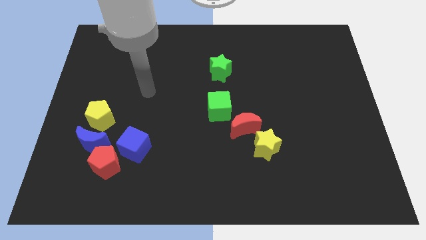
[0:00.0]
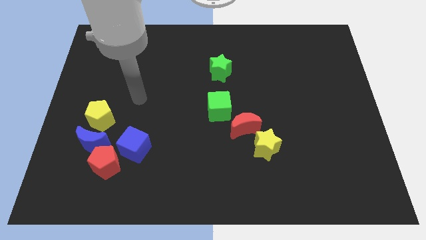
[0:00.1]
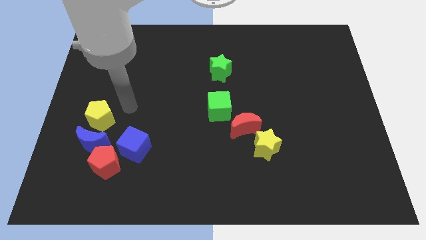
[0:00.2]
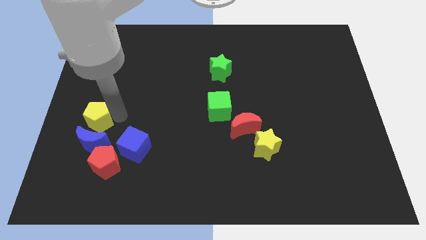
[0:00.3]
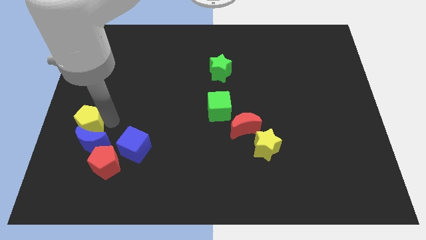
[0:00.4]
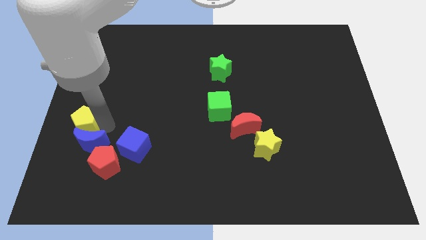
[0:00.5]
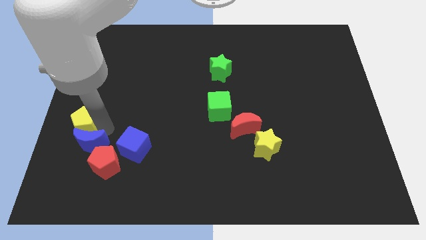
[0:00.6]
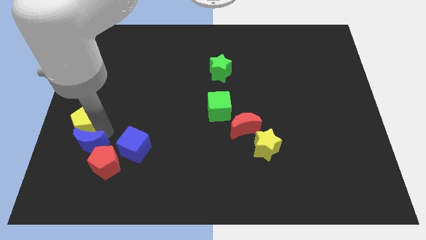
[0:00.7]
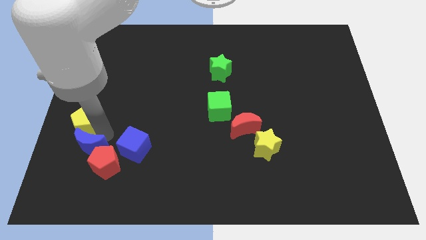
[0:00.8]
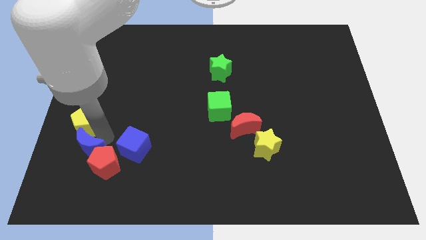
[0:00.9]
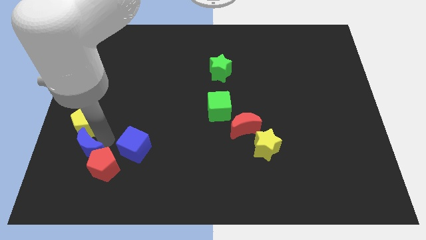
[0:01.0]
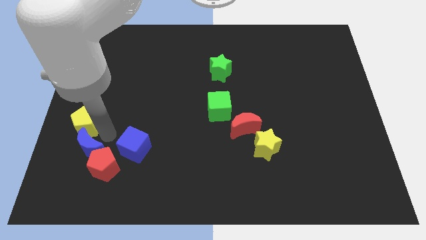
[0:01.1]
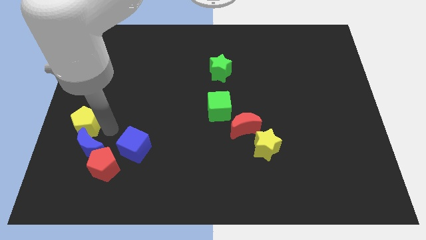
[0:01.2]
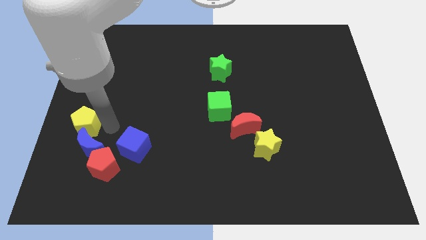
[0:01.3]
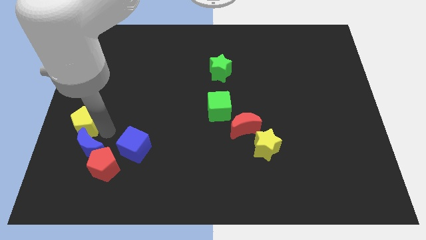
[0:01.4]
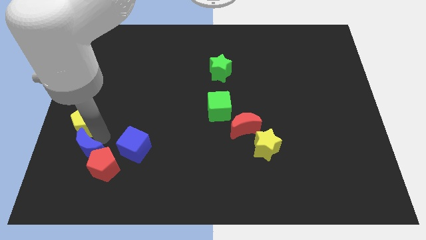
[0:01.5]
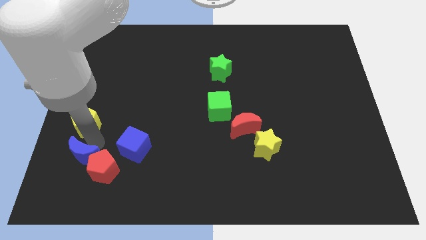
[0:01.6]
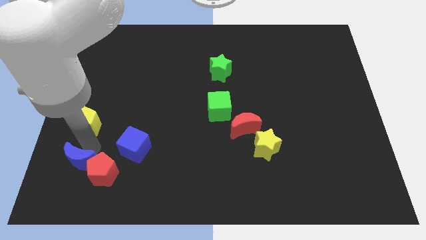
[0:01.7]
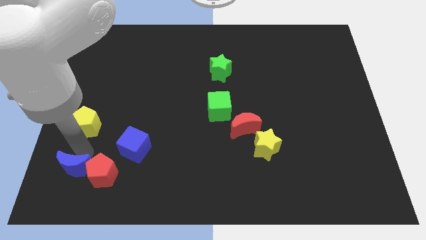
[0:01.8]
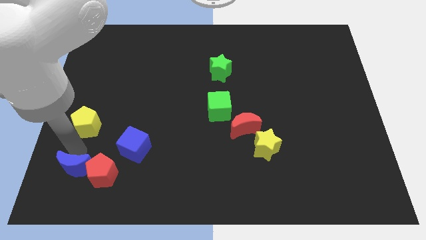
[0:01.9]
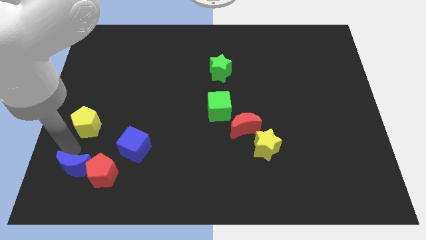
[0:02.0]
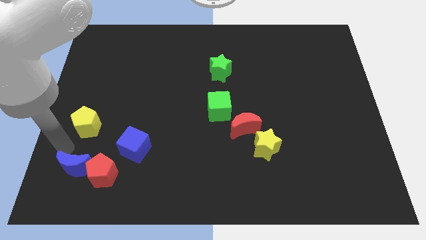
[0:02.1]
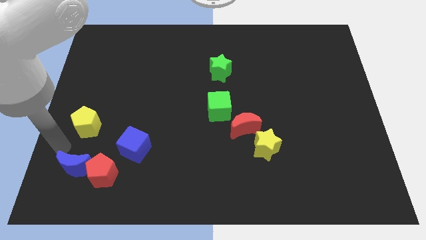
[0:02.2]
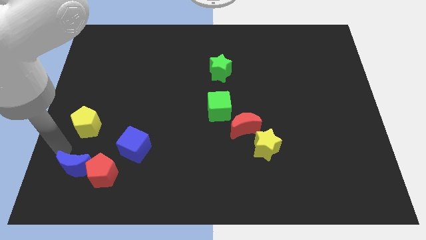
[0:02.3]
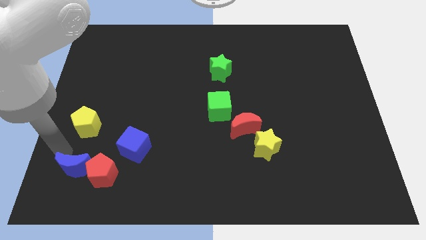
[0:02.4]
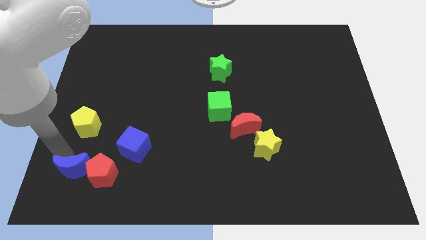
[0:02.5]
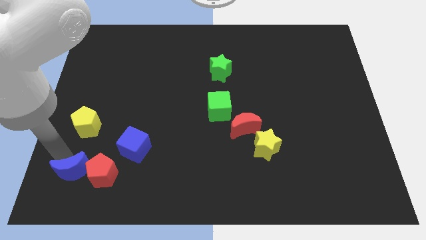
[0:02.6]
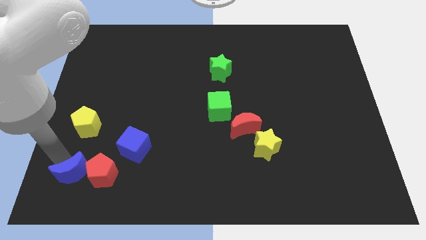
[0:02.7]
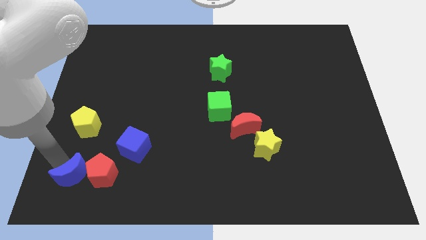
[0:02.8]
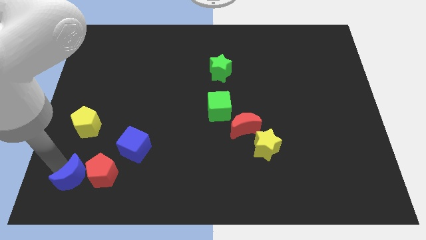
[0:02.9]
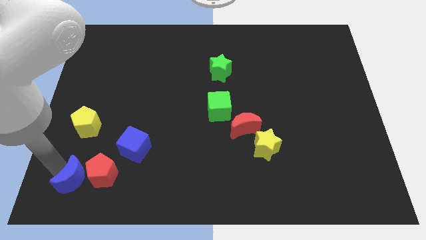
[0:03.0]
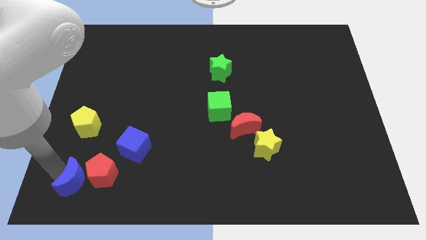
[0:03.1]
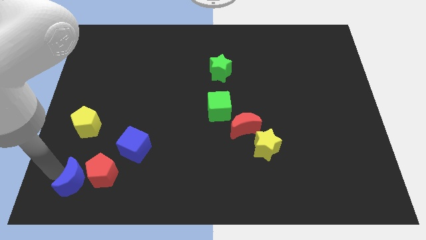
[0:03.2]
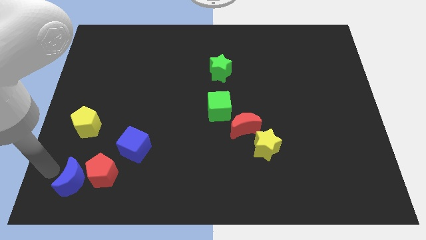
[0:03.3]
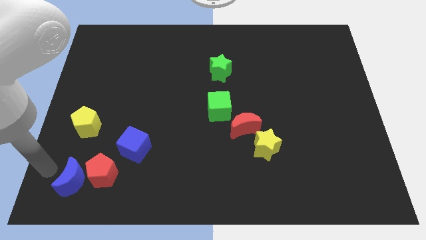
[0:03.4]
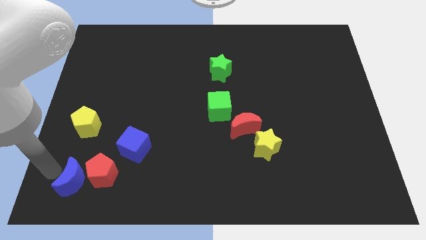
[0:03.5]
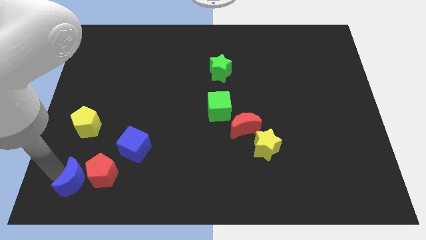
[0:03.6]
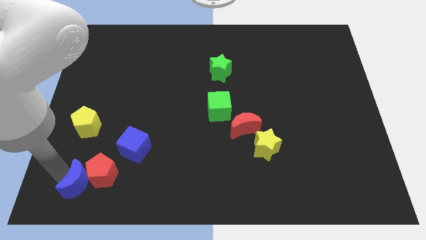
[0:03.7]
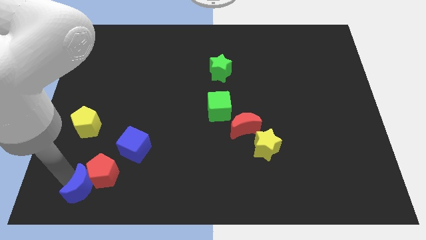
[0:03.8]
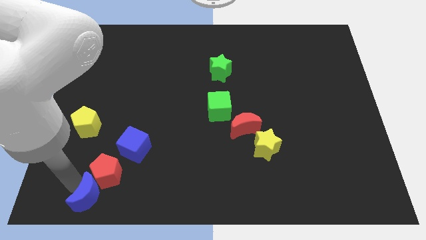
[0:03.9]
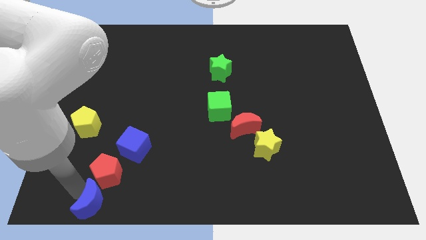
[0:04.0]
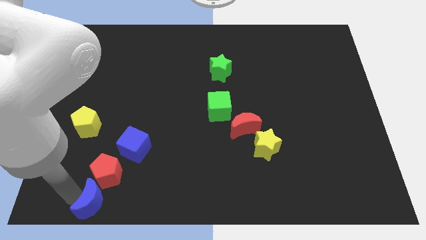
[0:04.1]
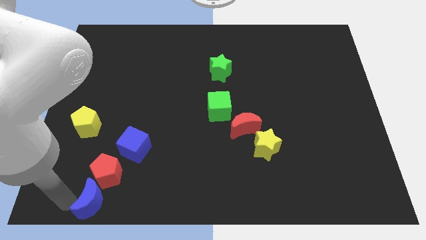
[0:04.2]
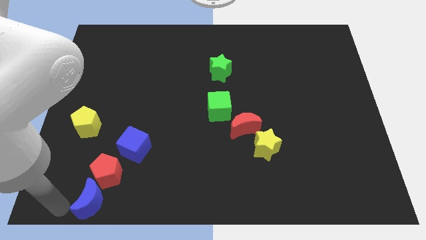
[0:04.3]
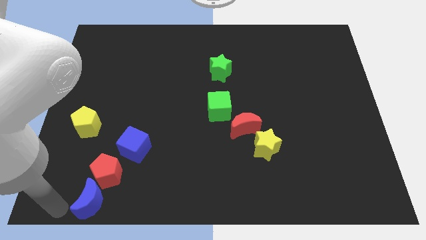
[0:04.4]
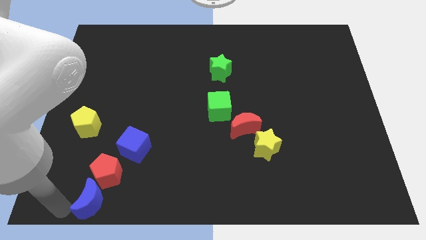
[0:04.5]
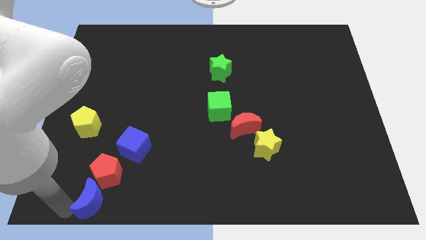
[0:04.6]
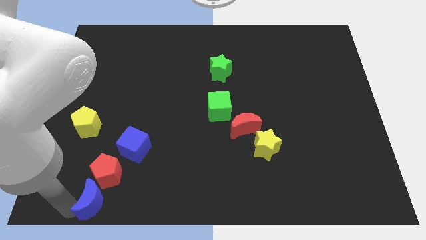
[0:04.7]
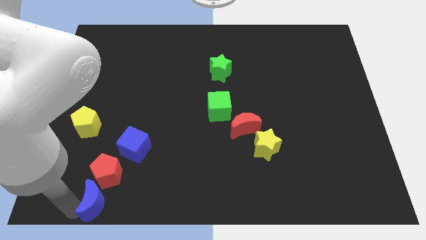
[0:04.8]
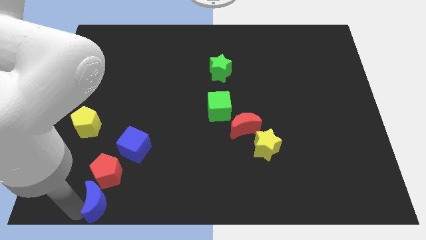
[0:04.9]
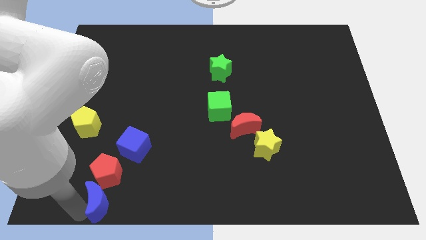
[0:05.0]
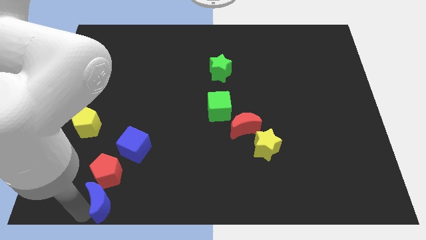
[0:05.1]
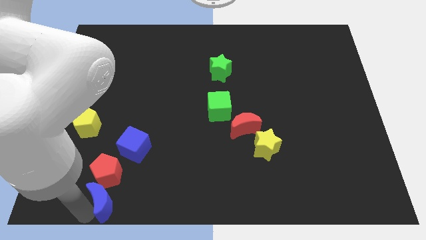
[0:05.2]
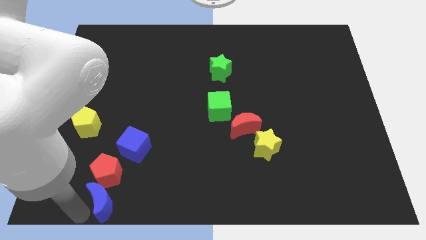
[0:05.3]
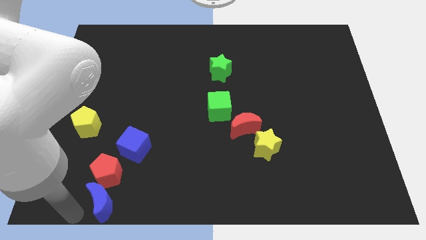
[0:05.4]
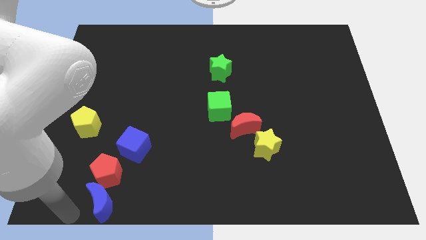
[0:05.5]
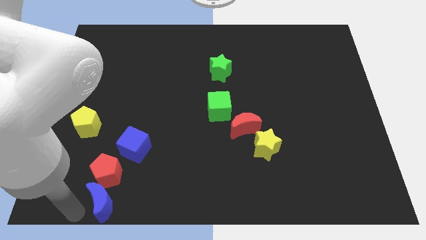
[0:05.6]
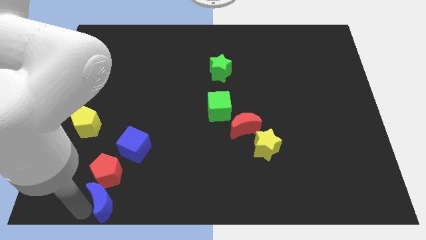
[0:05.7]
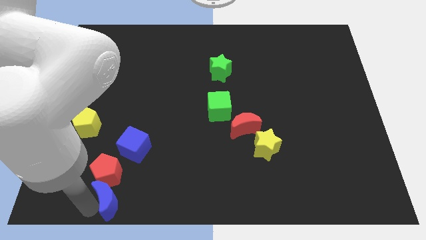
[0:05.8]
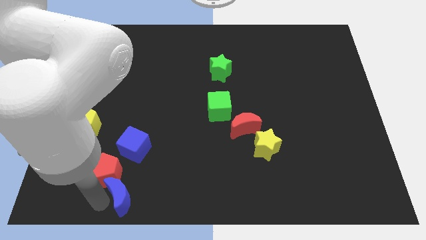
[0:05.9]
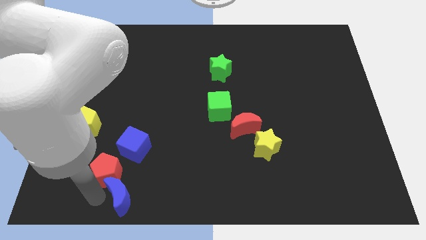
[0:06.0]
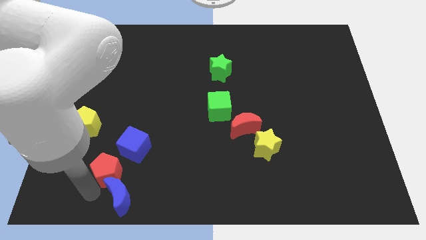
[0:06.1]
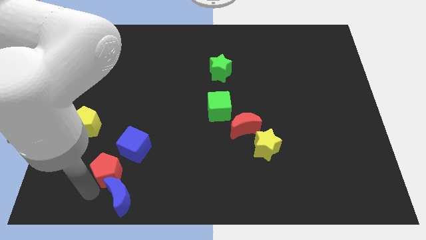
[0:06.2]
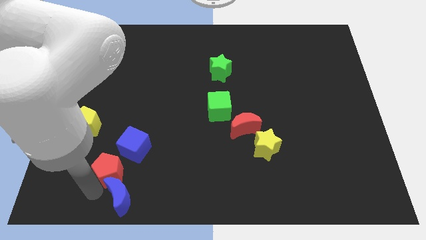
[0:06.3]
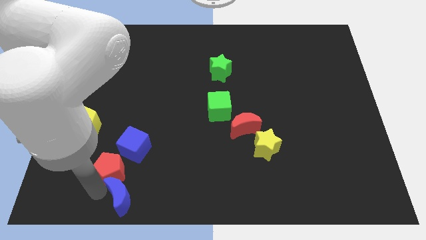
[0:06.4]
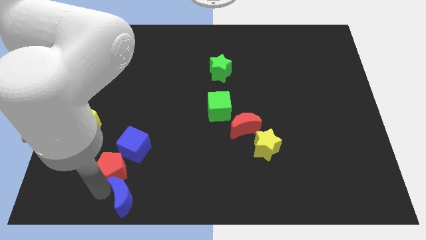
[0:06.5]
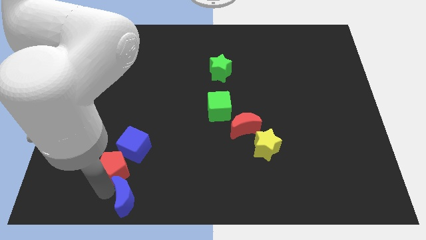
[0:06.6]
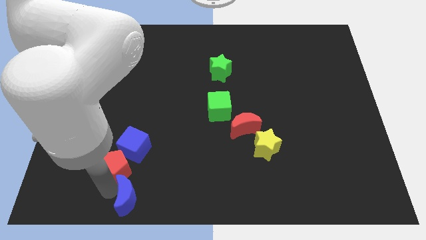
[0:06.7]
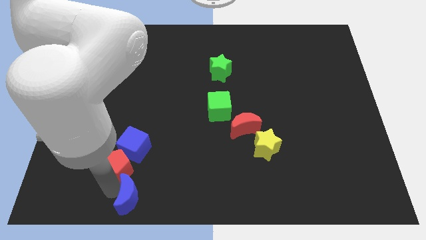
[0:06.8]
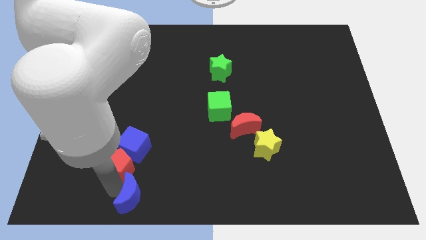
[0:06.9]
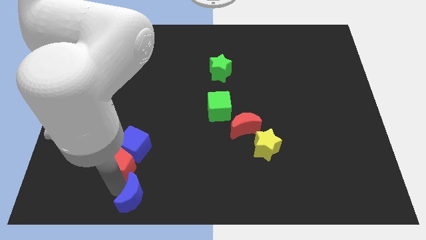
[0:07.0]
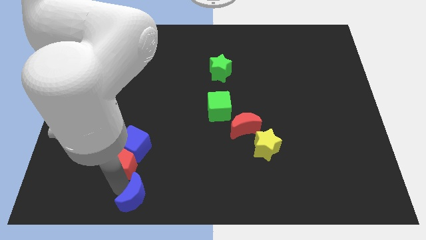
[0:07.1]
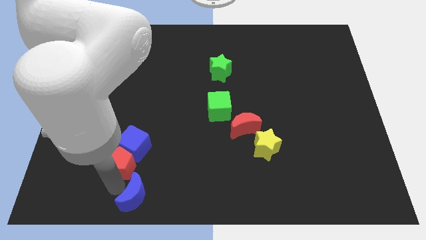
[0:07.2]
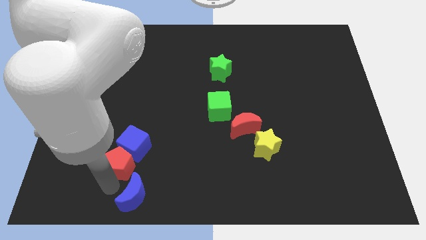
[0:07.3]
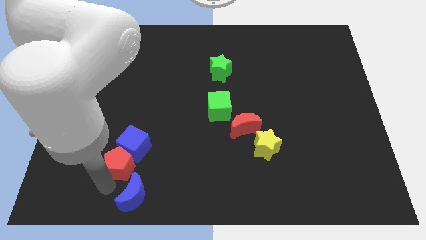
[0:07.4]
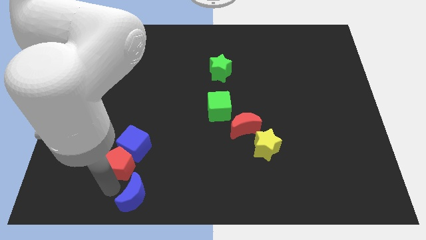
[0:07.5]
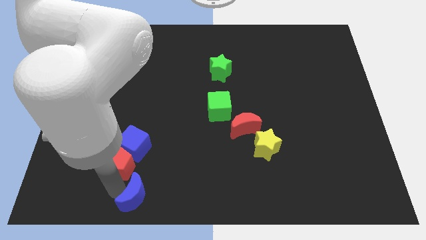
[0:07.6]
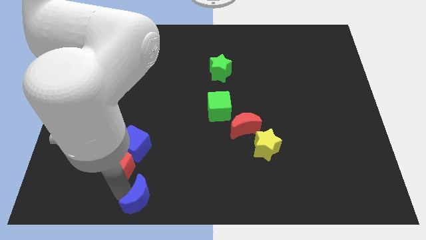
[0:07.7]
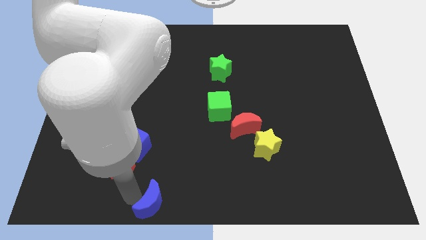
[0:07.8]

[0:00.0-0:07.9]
push the blue moon to the bottom side
